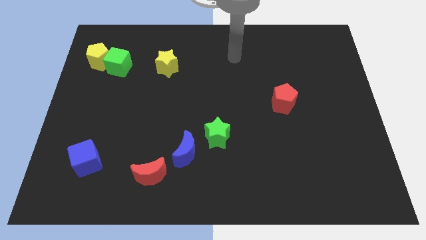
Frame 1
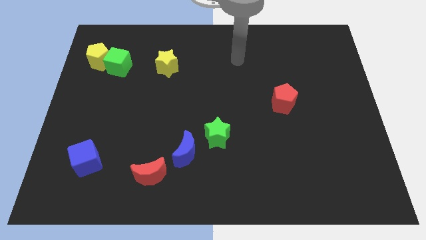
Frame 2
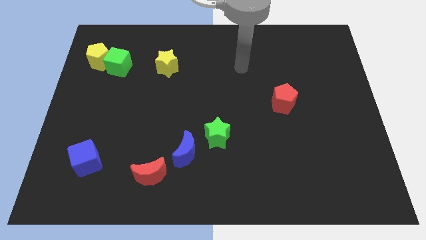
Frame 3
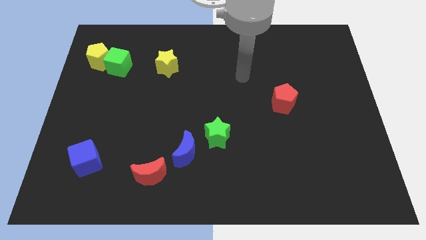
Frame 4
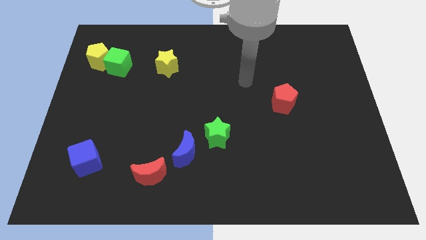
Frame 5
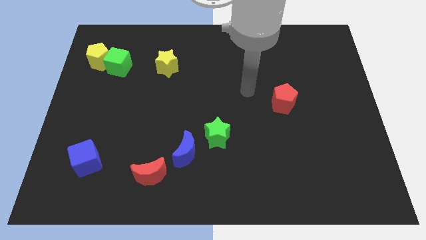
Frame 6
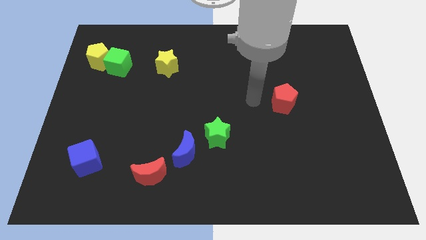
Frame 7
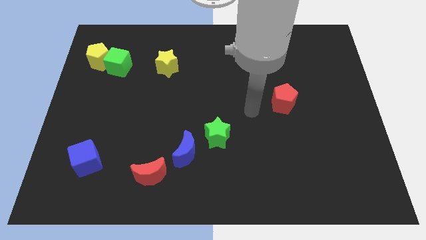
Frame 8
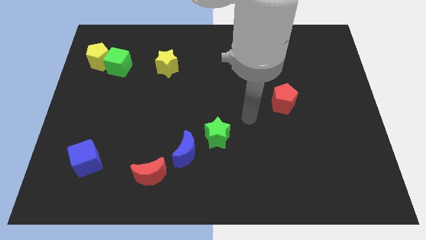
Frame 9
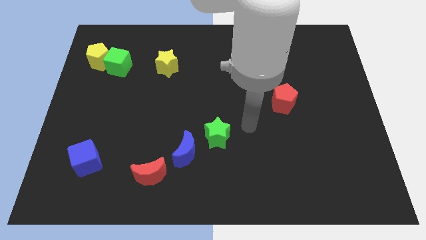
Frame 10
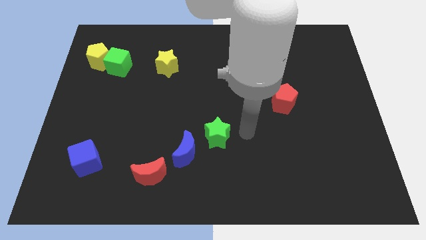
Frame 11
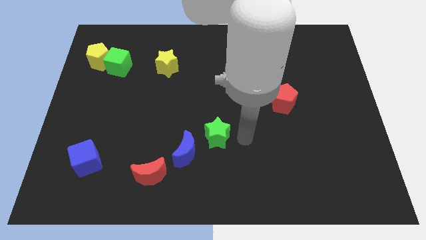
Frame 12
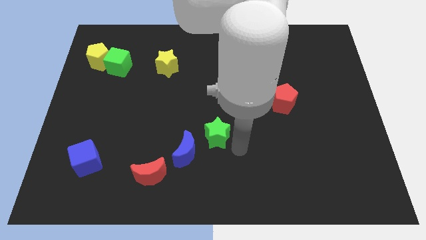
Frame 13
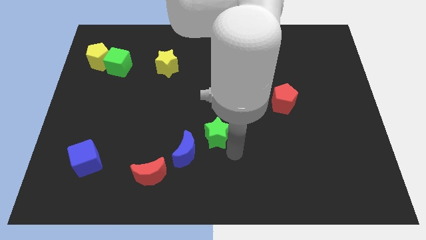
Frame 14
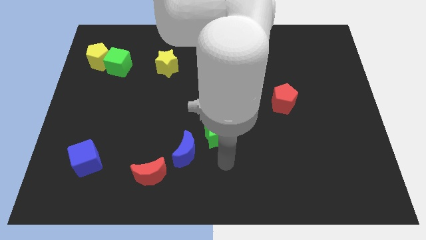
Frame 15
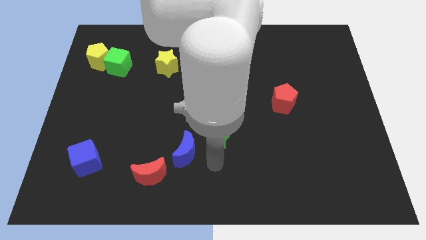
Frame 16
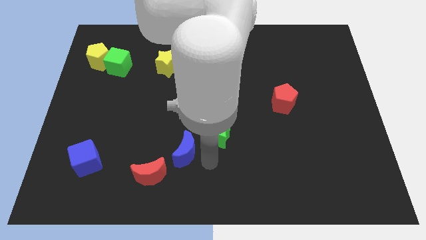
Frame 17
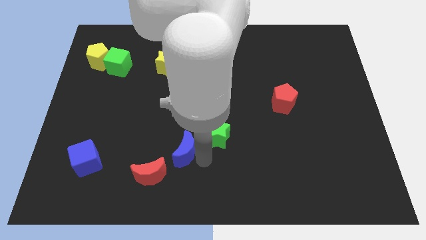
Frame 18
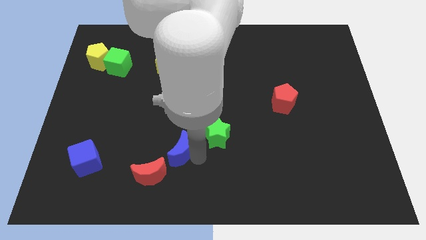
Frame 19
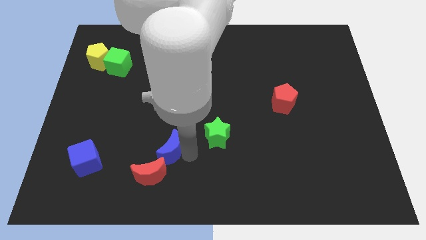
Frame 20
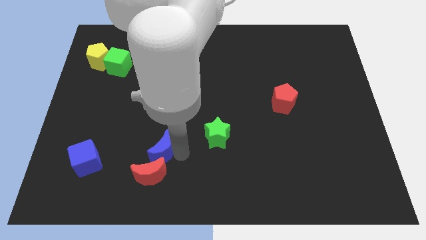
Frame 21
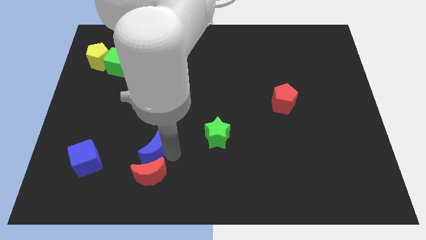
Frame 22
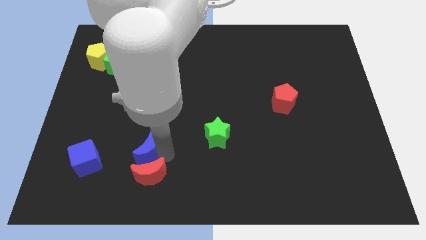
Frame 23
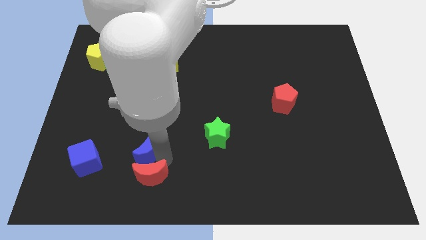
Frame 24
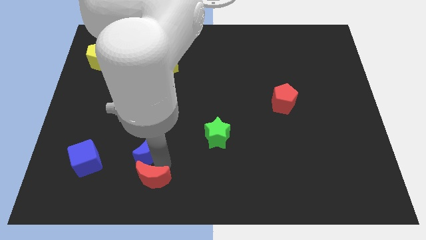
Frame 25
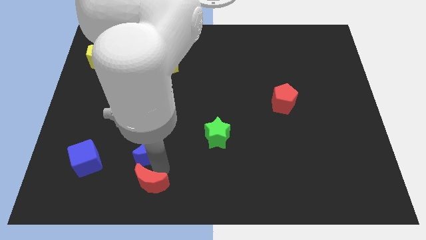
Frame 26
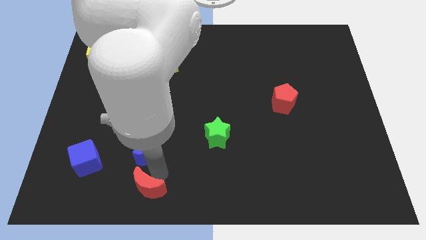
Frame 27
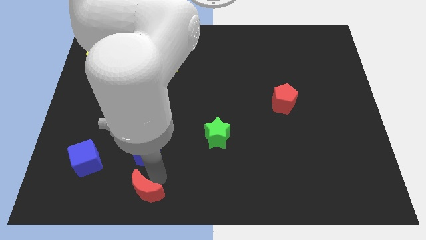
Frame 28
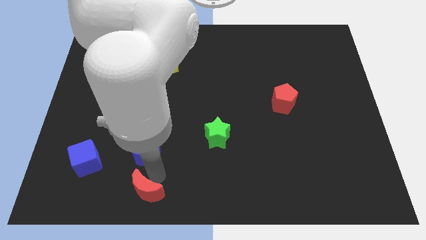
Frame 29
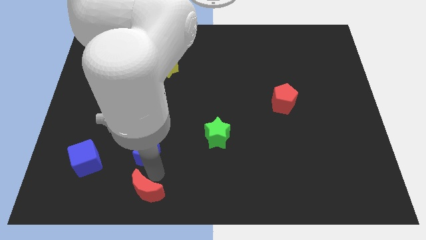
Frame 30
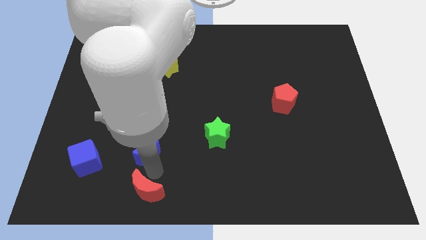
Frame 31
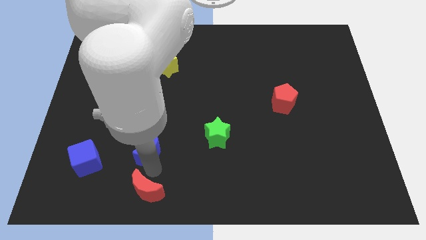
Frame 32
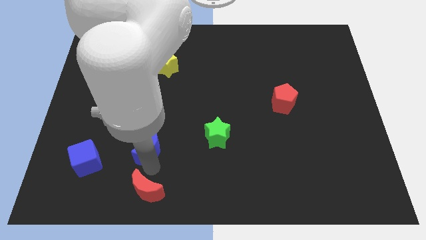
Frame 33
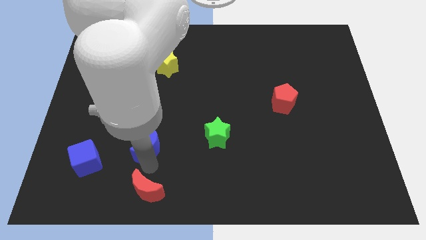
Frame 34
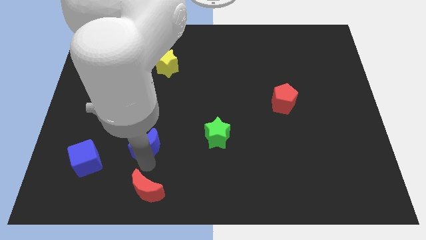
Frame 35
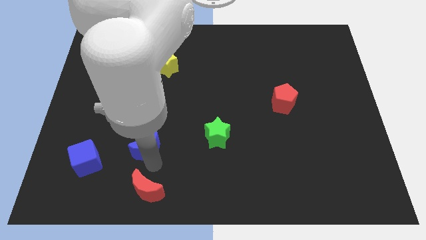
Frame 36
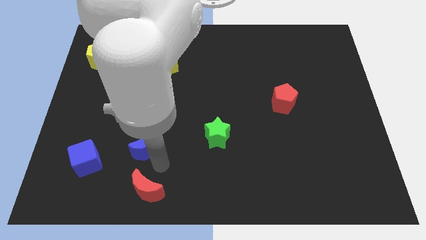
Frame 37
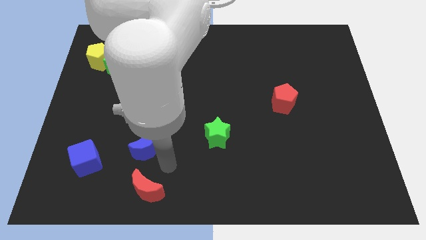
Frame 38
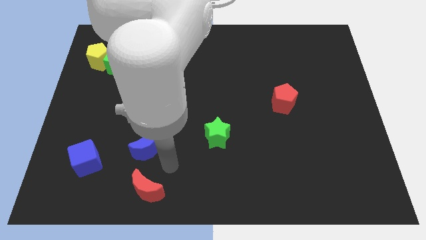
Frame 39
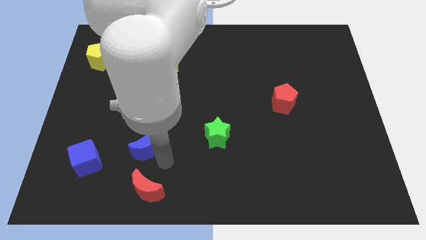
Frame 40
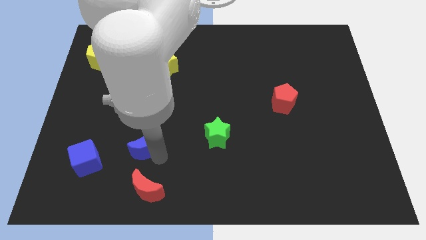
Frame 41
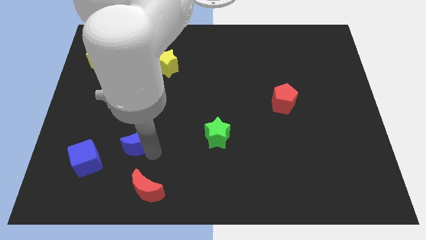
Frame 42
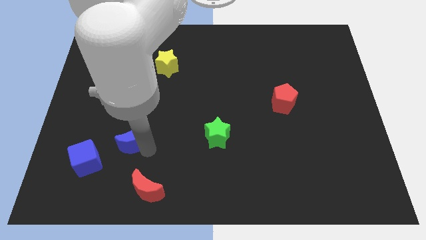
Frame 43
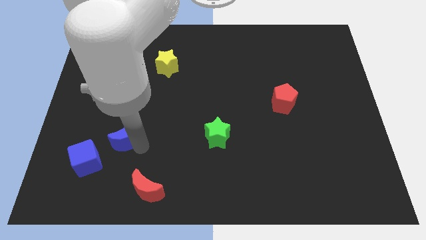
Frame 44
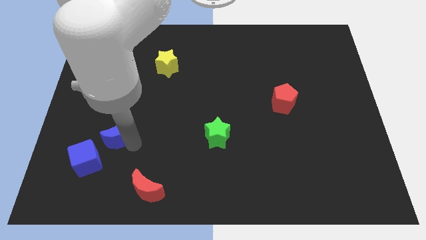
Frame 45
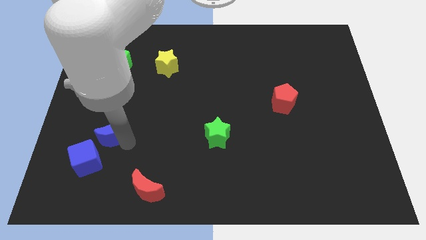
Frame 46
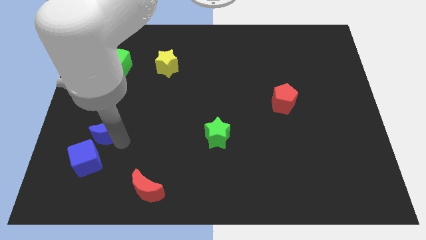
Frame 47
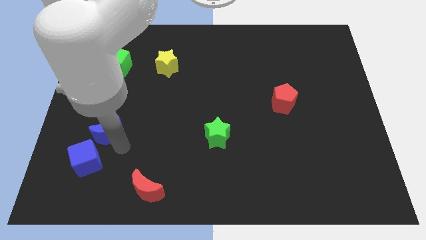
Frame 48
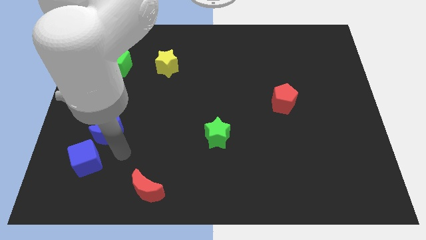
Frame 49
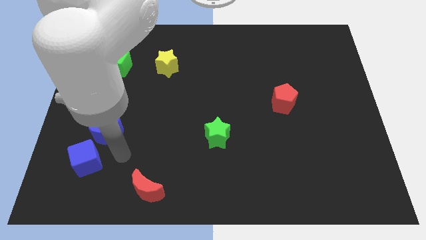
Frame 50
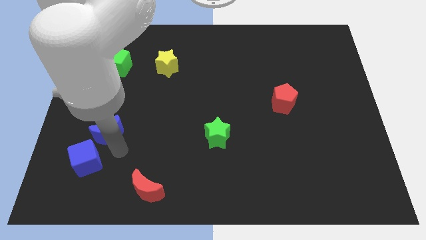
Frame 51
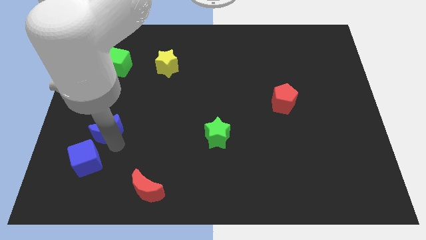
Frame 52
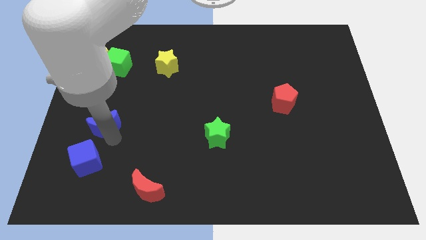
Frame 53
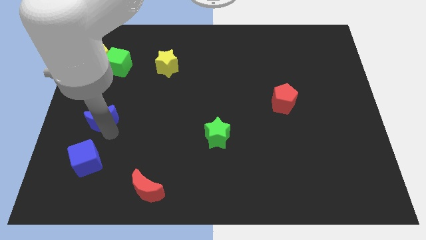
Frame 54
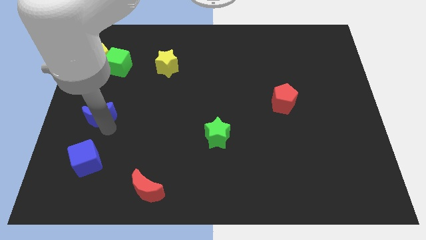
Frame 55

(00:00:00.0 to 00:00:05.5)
move the blue moon to the left side

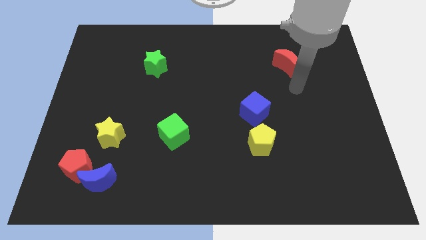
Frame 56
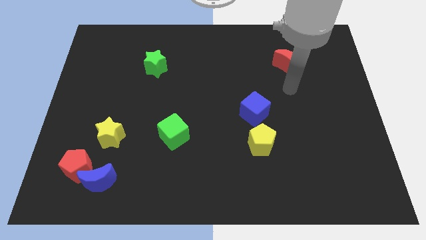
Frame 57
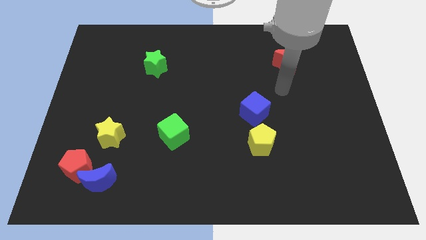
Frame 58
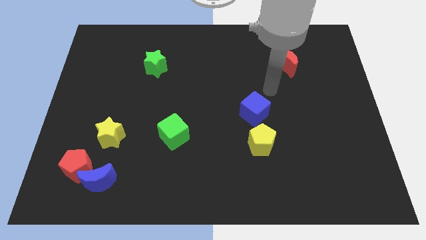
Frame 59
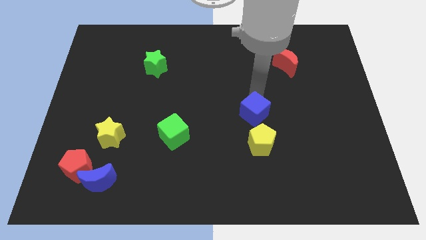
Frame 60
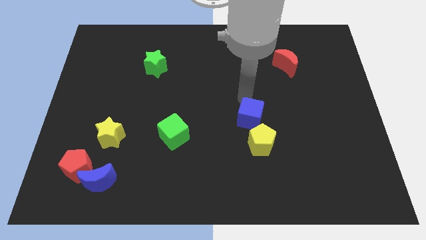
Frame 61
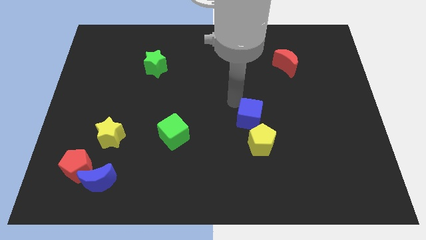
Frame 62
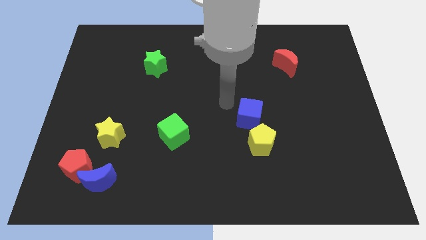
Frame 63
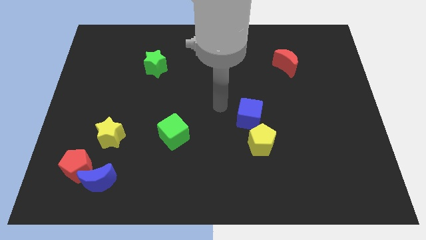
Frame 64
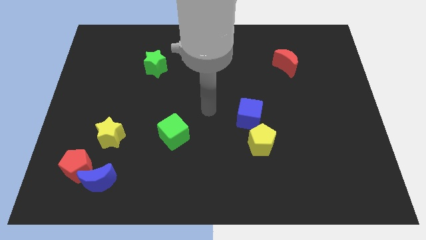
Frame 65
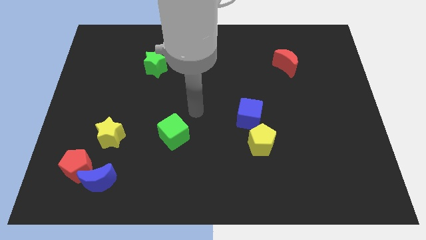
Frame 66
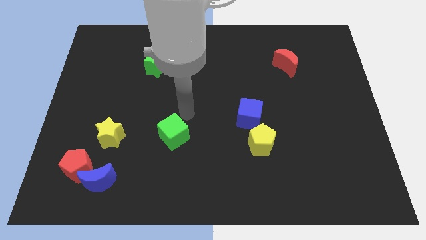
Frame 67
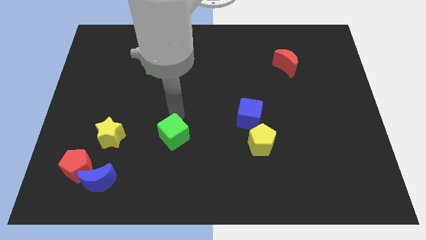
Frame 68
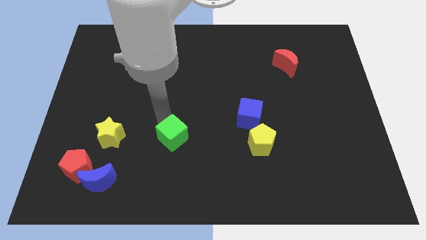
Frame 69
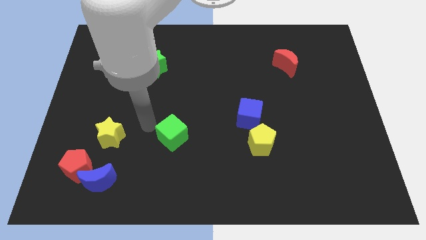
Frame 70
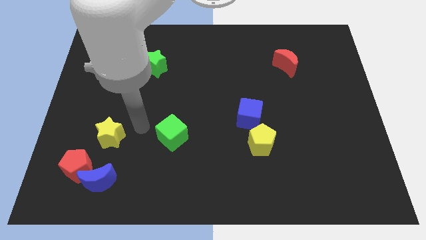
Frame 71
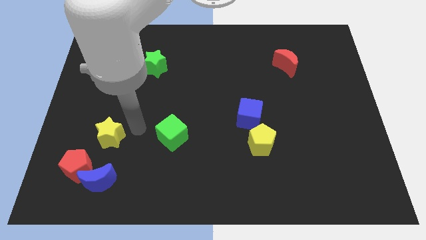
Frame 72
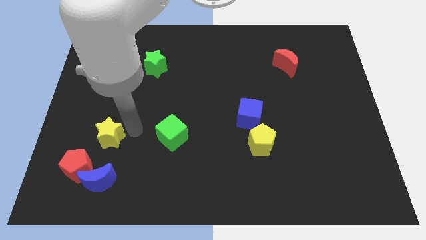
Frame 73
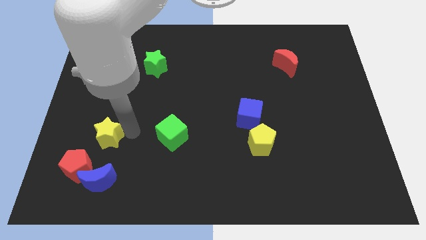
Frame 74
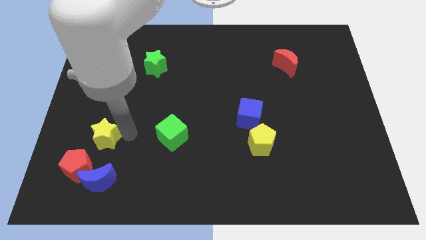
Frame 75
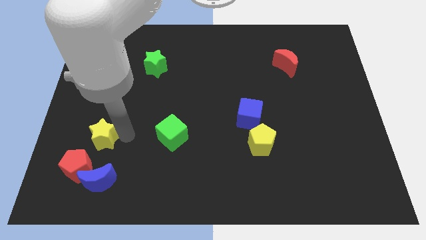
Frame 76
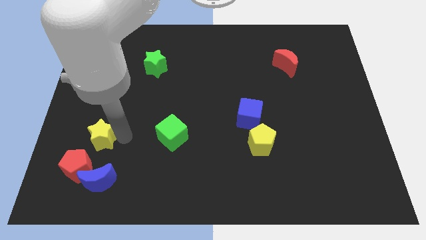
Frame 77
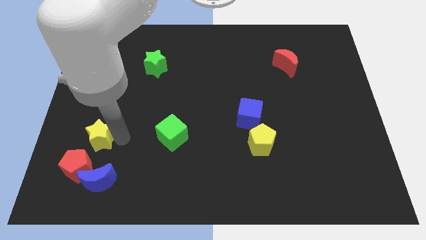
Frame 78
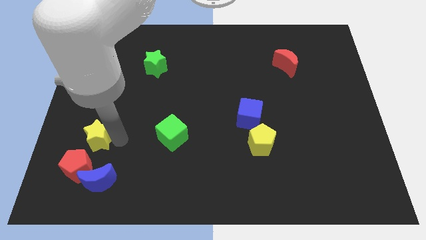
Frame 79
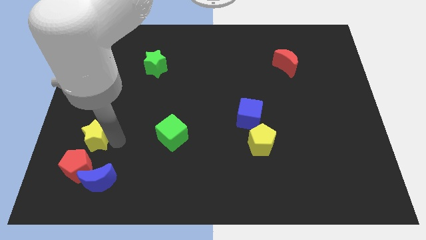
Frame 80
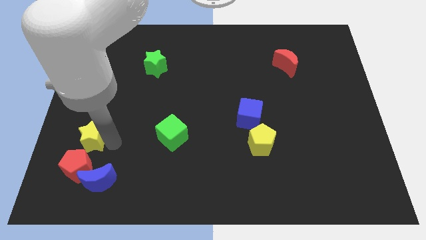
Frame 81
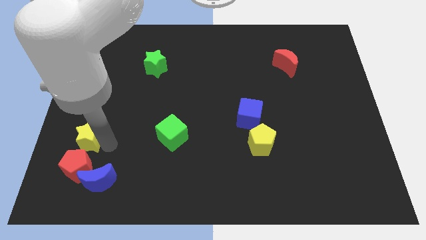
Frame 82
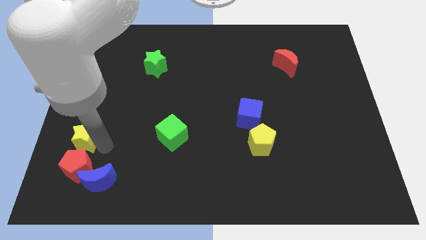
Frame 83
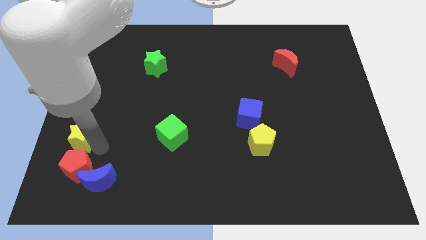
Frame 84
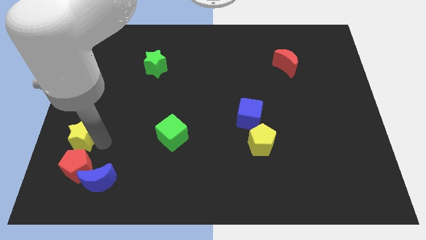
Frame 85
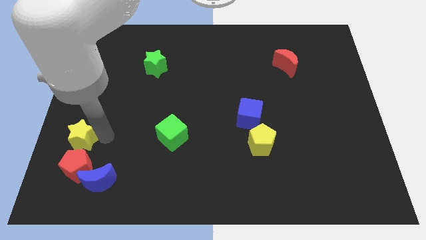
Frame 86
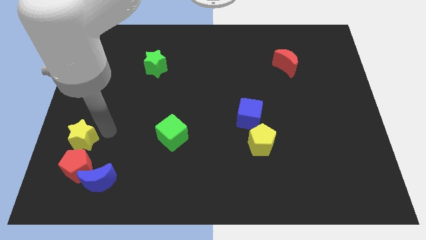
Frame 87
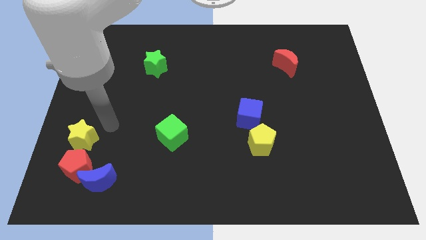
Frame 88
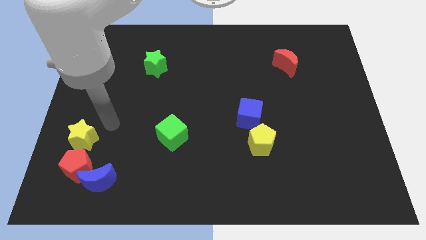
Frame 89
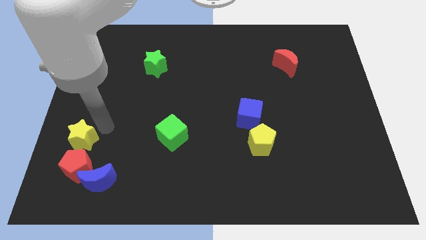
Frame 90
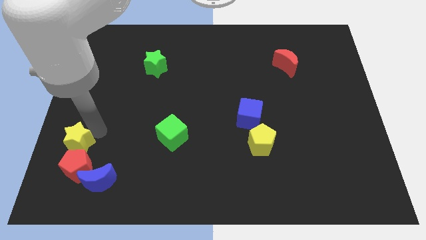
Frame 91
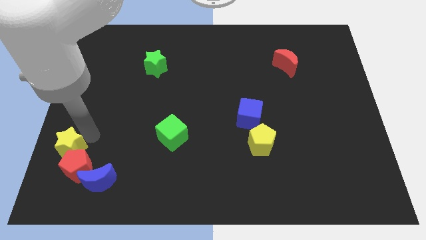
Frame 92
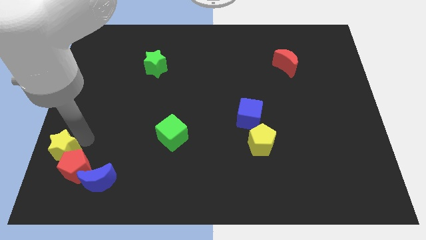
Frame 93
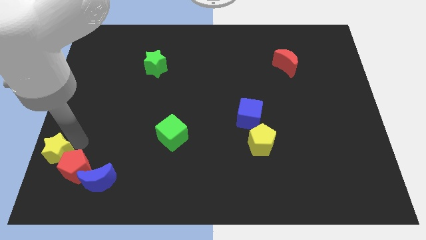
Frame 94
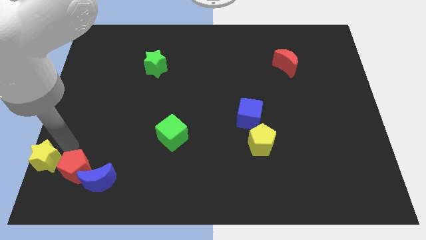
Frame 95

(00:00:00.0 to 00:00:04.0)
push the yellow star to the bottom left of the board
